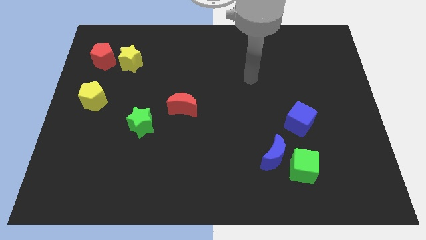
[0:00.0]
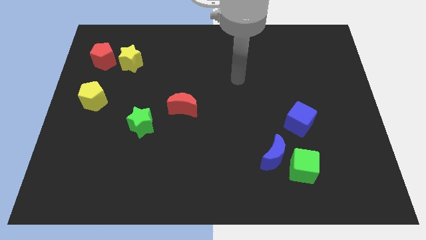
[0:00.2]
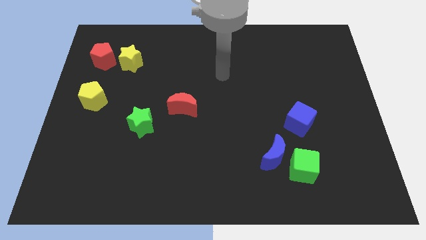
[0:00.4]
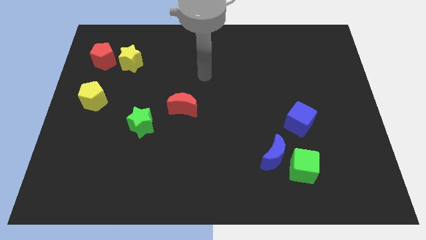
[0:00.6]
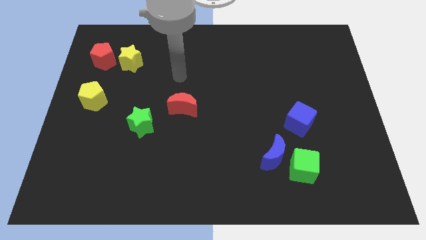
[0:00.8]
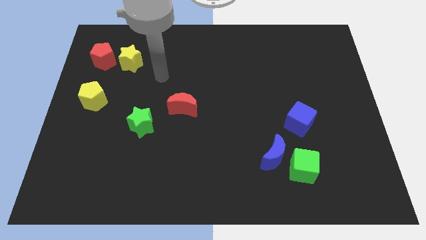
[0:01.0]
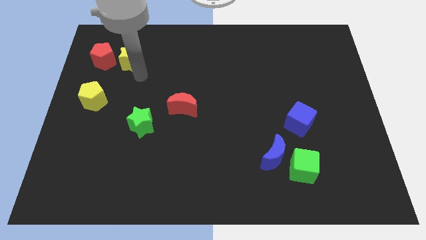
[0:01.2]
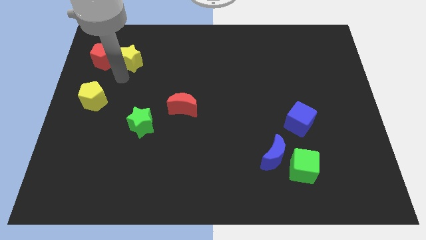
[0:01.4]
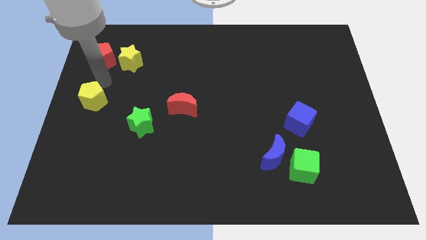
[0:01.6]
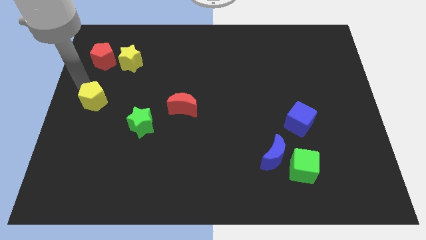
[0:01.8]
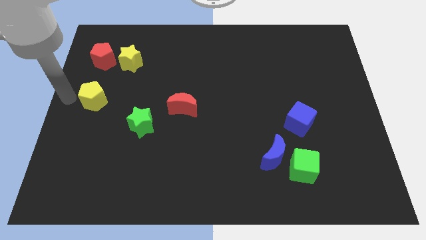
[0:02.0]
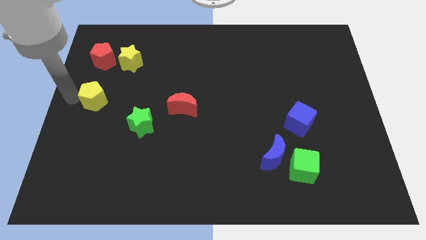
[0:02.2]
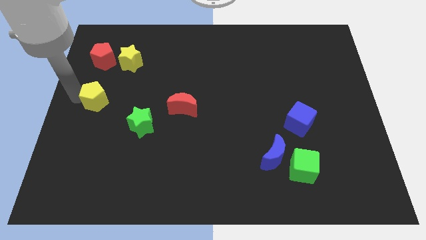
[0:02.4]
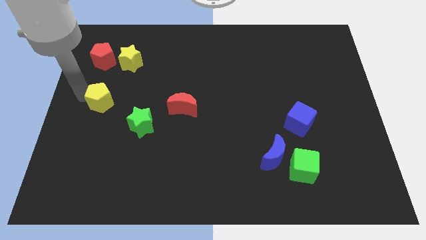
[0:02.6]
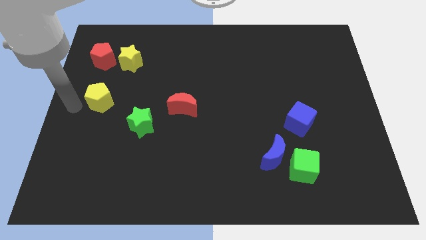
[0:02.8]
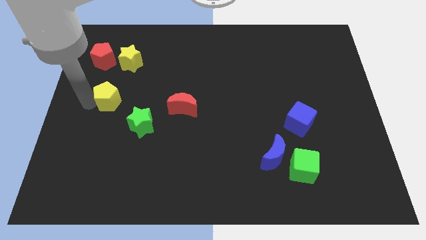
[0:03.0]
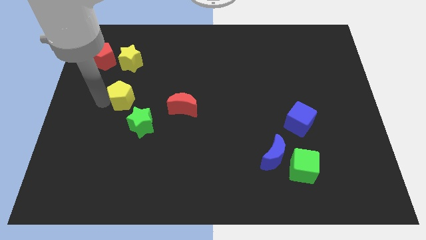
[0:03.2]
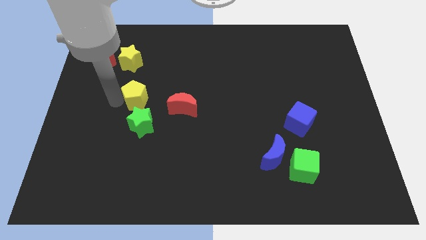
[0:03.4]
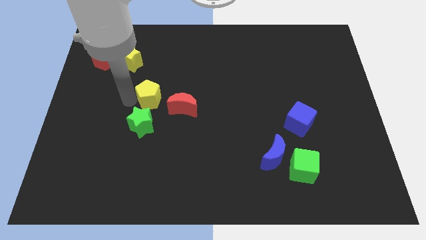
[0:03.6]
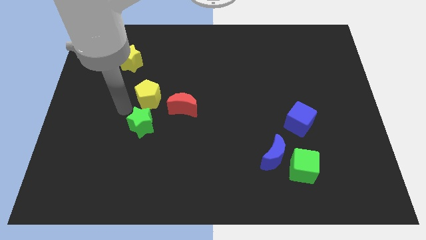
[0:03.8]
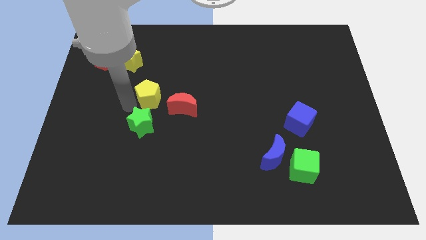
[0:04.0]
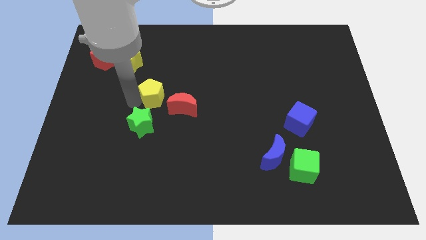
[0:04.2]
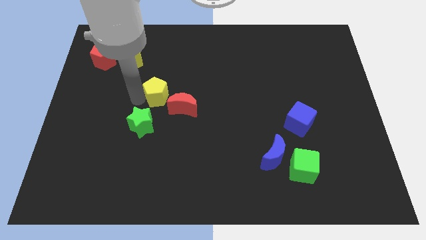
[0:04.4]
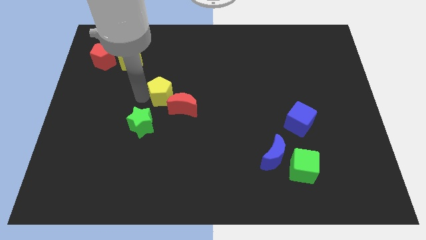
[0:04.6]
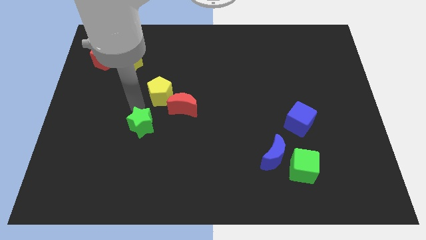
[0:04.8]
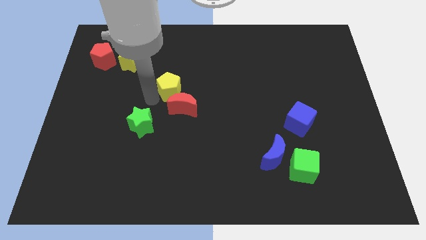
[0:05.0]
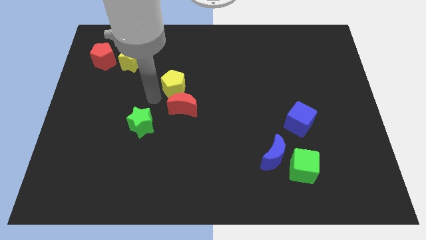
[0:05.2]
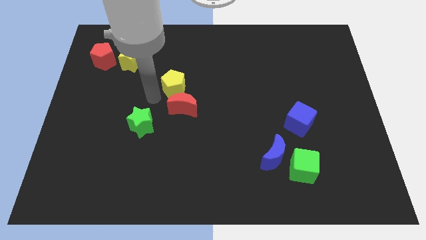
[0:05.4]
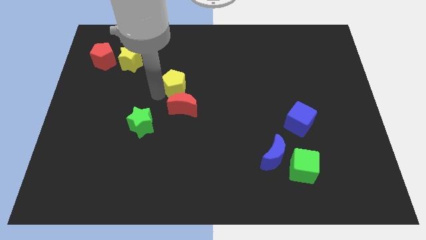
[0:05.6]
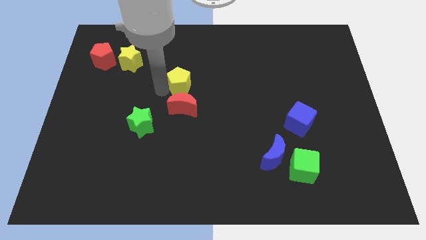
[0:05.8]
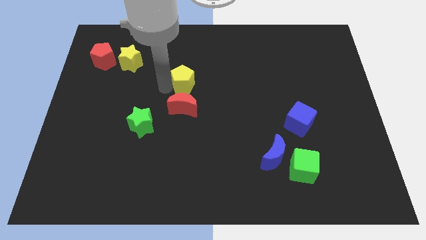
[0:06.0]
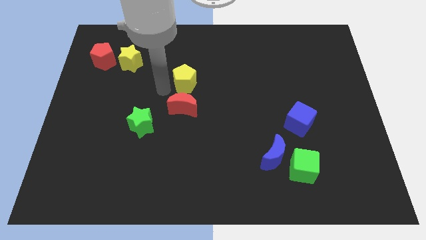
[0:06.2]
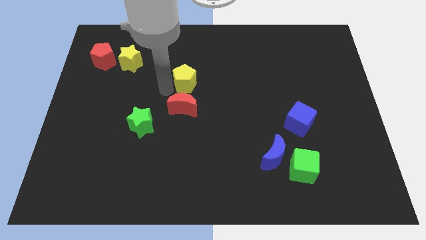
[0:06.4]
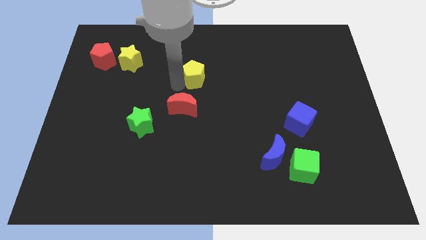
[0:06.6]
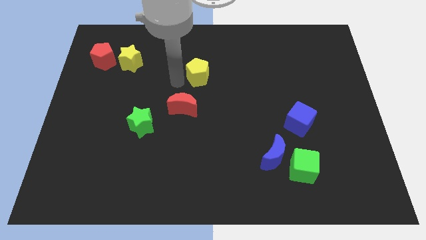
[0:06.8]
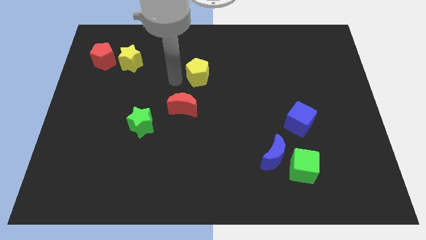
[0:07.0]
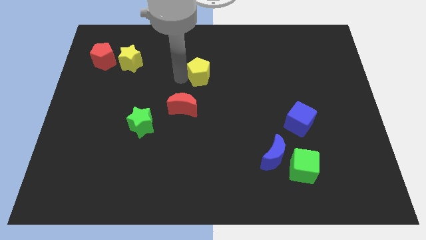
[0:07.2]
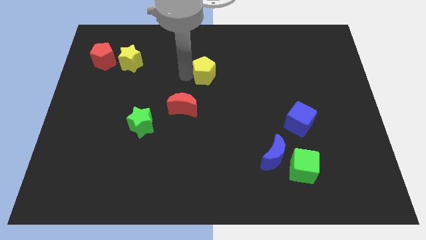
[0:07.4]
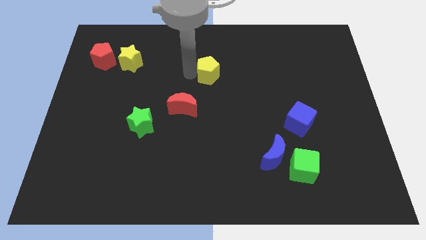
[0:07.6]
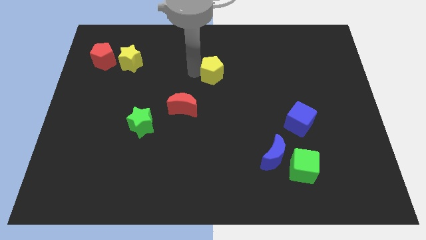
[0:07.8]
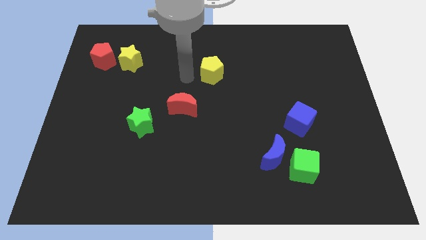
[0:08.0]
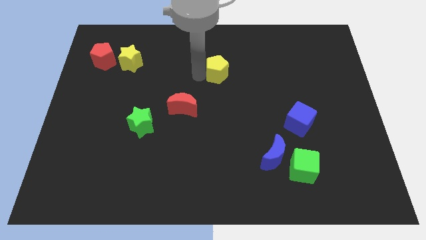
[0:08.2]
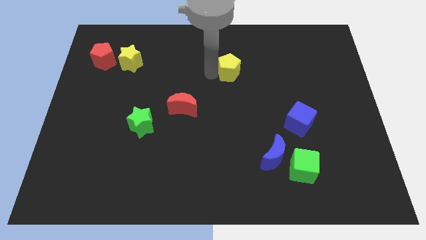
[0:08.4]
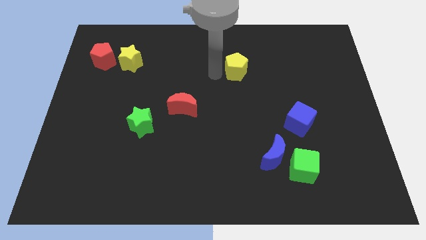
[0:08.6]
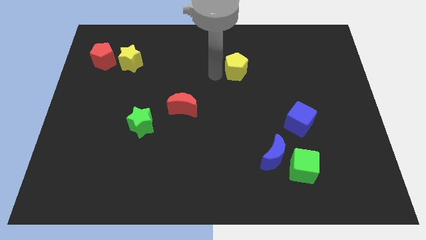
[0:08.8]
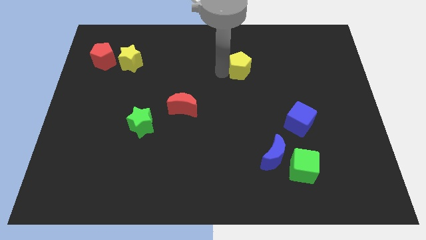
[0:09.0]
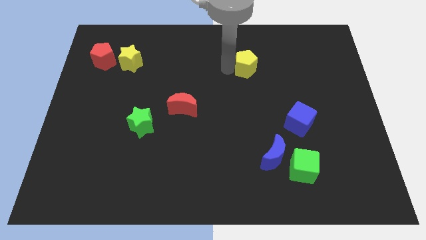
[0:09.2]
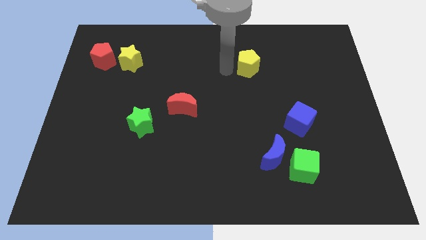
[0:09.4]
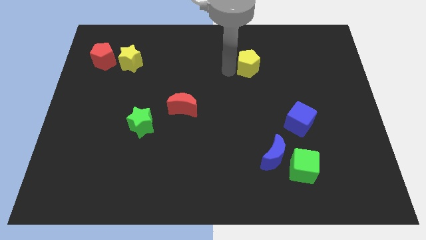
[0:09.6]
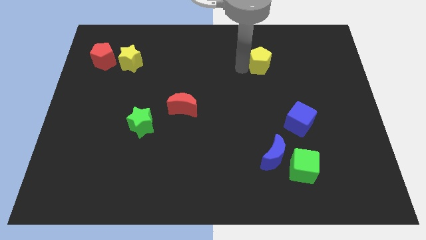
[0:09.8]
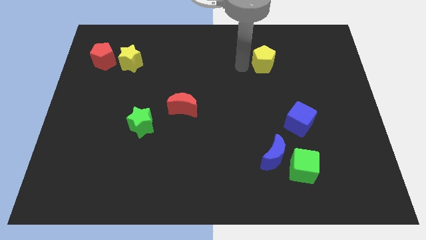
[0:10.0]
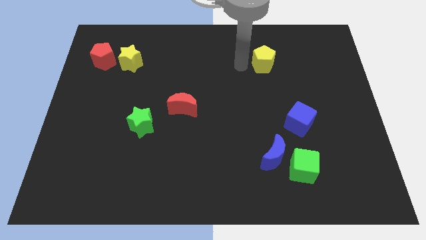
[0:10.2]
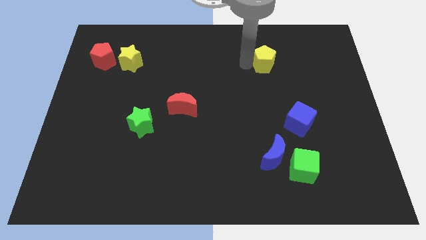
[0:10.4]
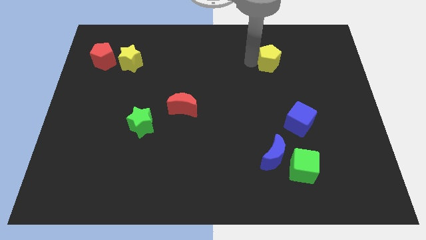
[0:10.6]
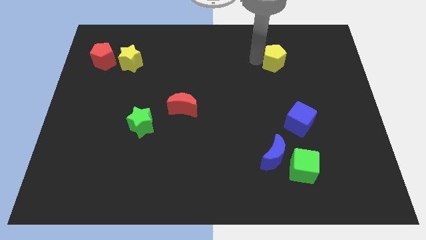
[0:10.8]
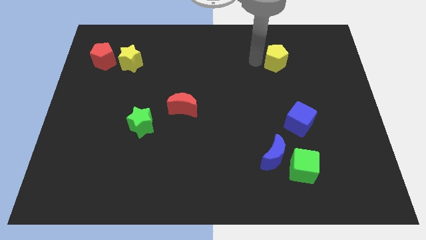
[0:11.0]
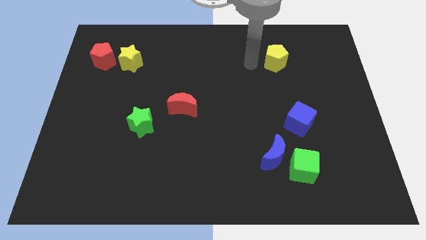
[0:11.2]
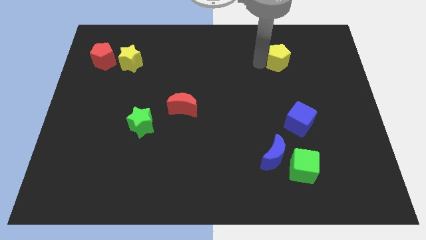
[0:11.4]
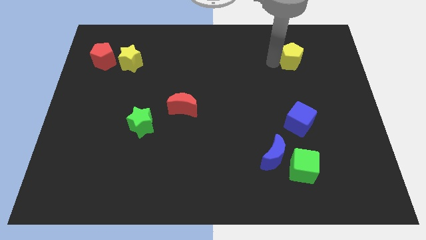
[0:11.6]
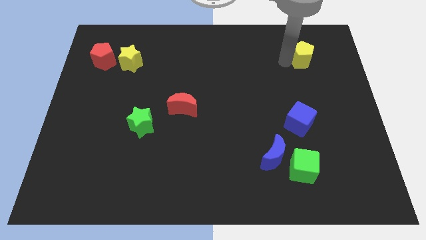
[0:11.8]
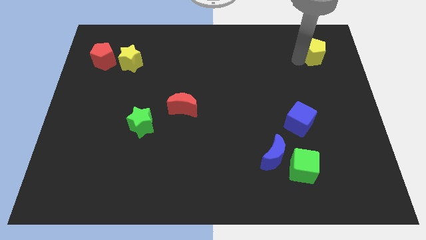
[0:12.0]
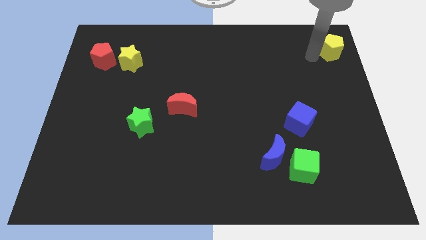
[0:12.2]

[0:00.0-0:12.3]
push the yellow pentagon to the top right of the board
